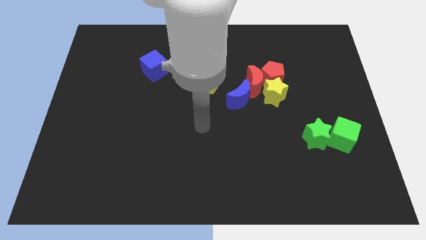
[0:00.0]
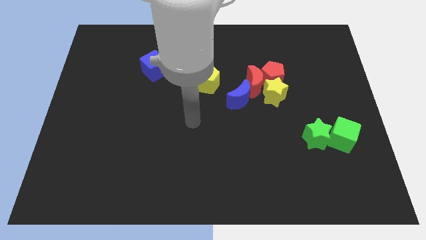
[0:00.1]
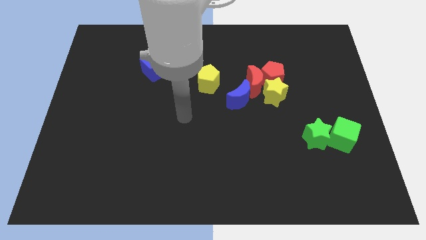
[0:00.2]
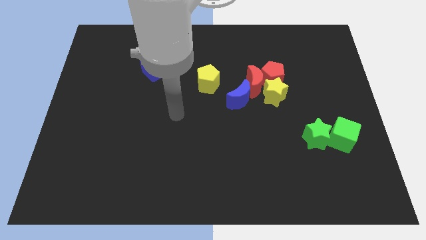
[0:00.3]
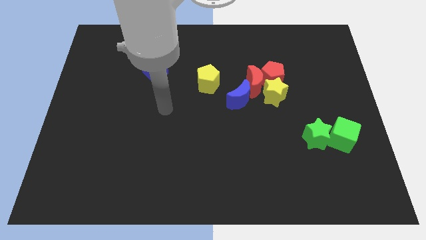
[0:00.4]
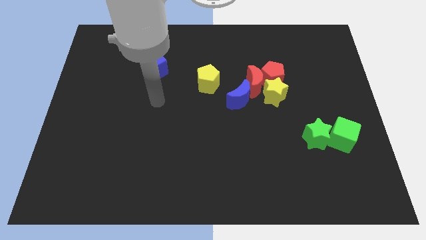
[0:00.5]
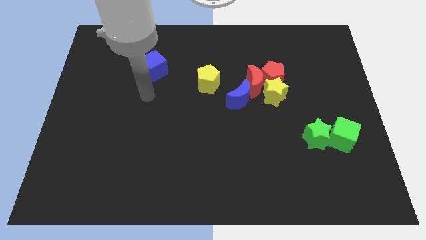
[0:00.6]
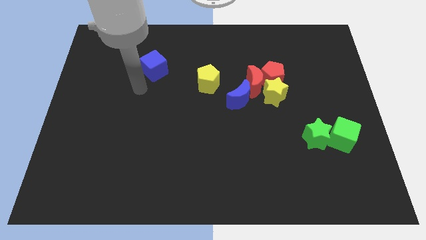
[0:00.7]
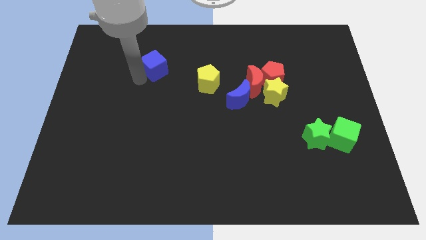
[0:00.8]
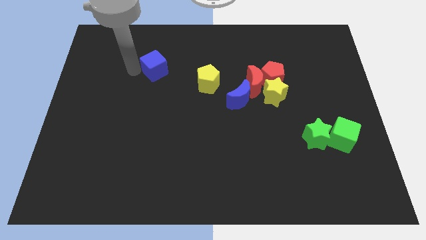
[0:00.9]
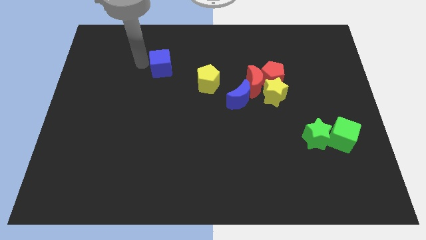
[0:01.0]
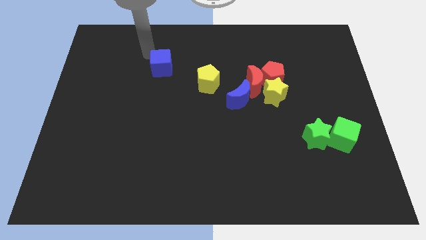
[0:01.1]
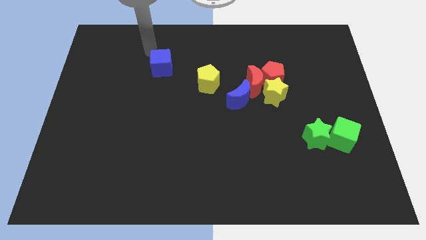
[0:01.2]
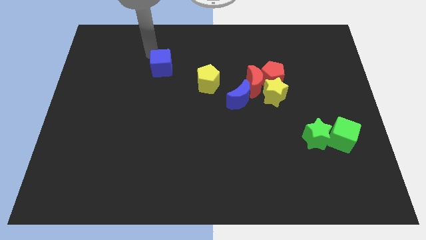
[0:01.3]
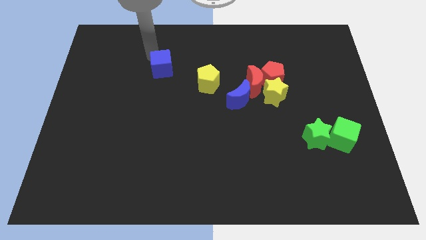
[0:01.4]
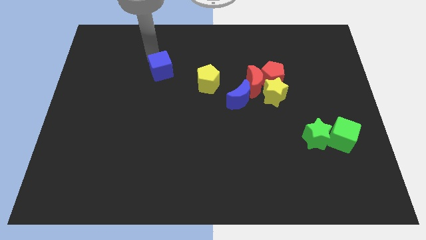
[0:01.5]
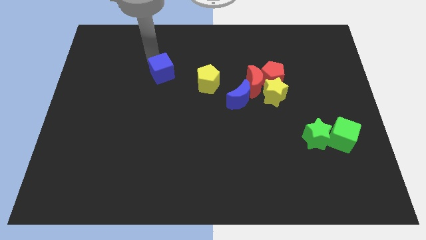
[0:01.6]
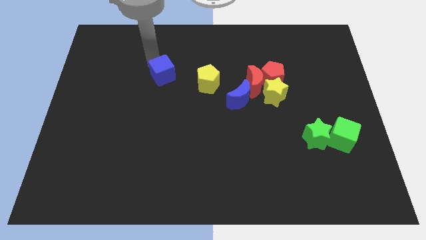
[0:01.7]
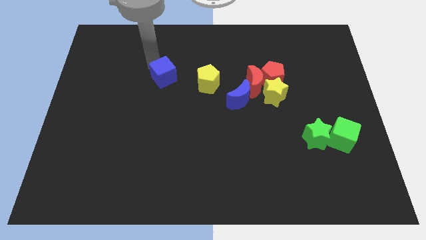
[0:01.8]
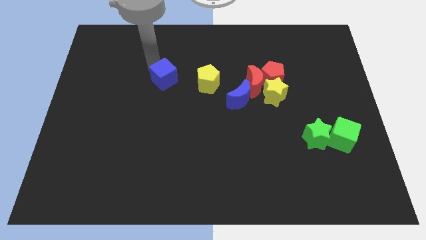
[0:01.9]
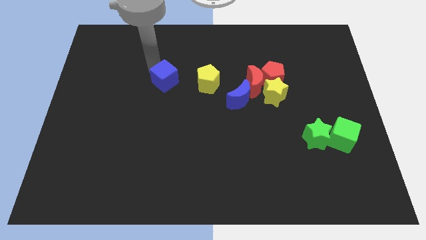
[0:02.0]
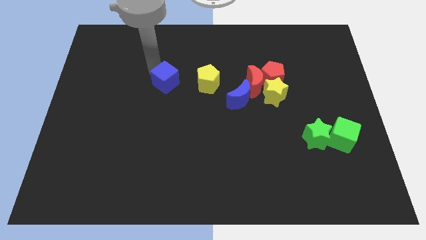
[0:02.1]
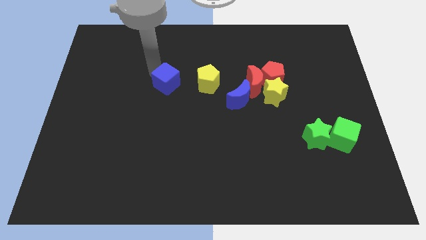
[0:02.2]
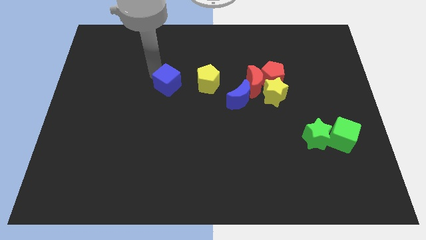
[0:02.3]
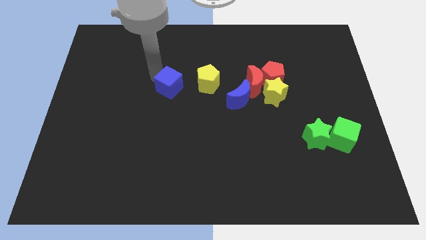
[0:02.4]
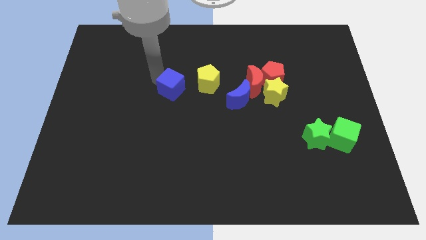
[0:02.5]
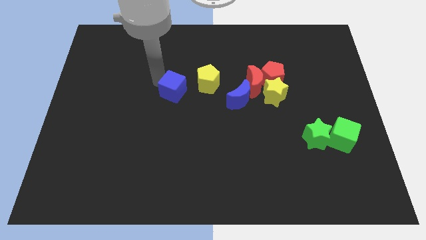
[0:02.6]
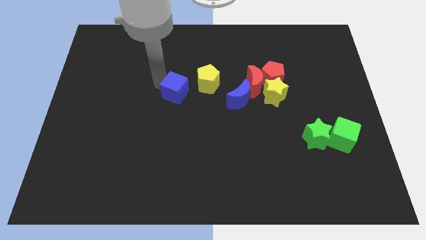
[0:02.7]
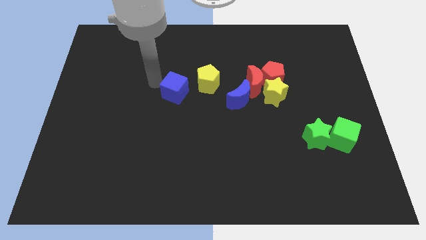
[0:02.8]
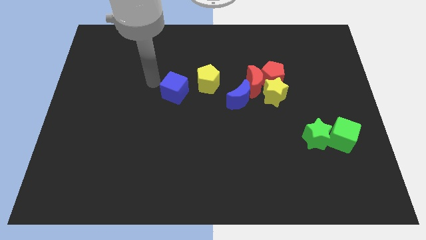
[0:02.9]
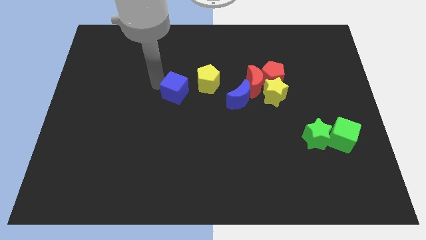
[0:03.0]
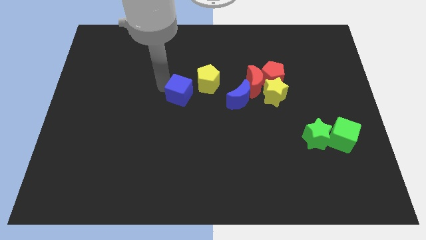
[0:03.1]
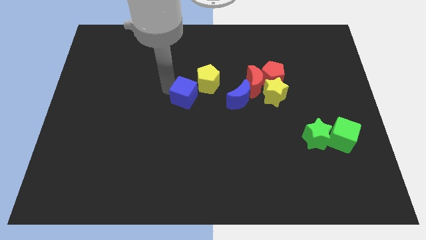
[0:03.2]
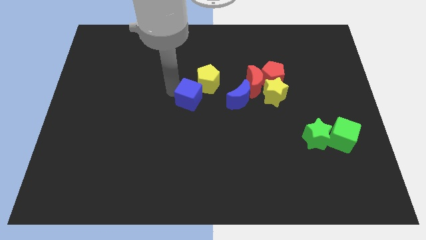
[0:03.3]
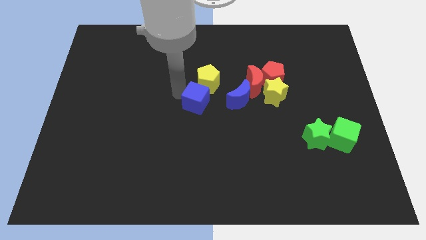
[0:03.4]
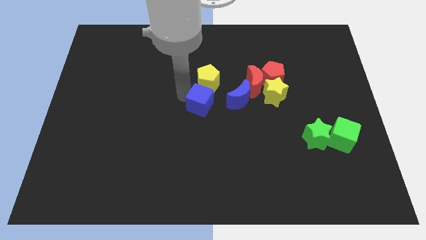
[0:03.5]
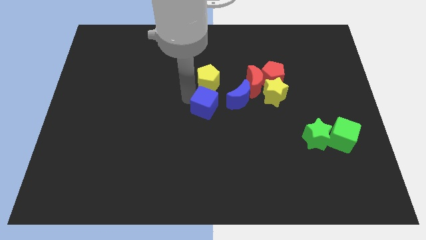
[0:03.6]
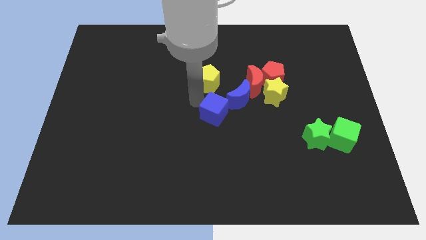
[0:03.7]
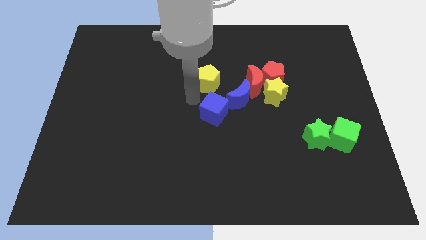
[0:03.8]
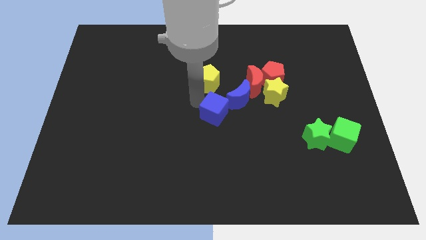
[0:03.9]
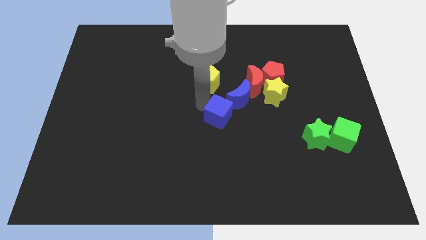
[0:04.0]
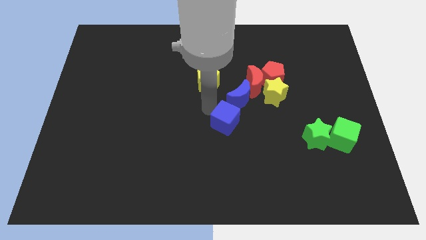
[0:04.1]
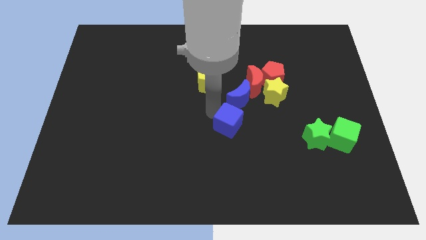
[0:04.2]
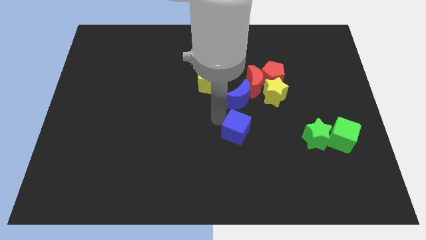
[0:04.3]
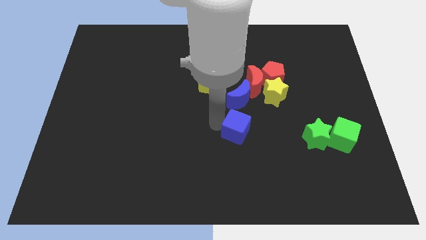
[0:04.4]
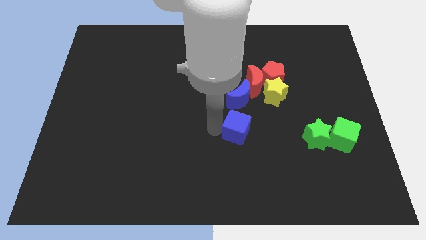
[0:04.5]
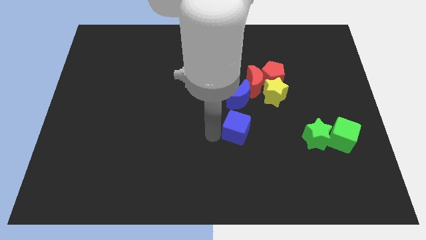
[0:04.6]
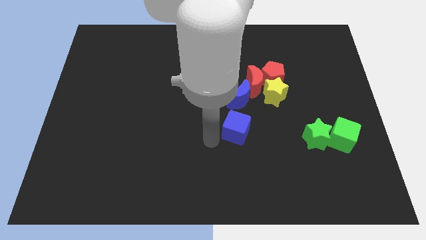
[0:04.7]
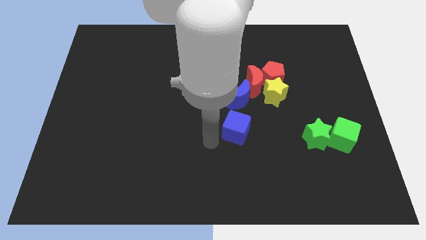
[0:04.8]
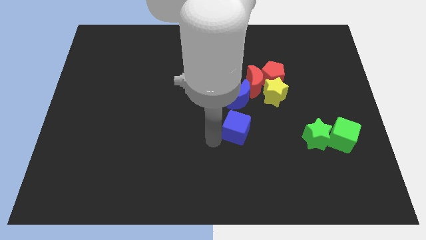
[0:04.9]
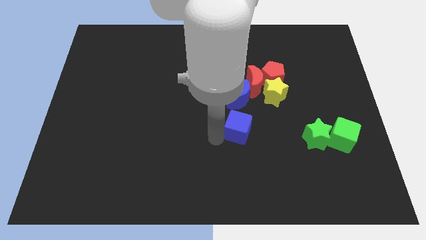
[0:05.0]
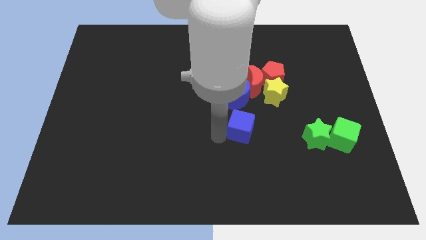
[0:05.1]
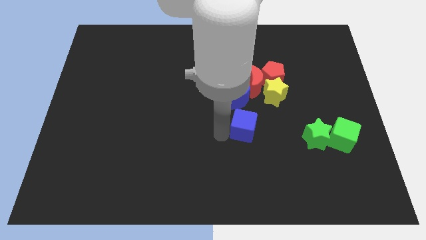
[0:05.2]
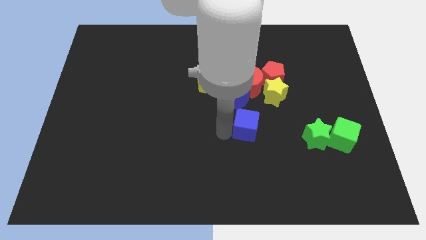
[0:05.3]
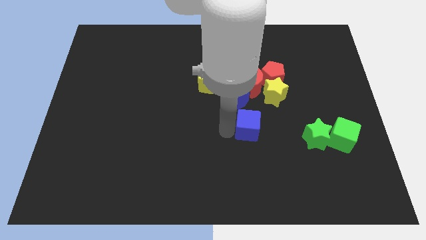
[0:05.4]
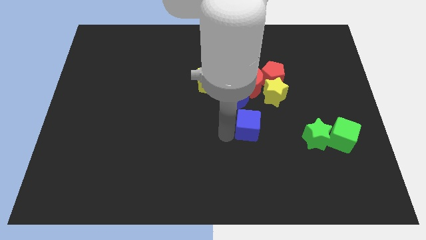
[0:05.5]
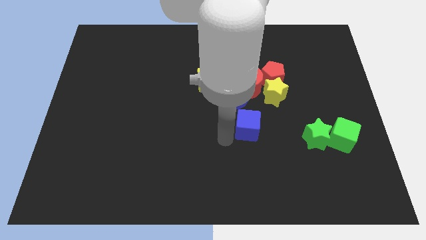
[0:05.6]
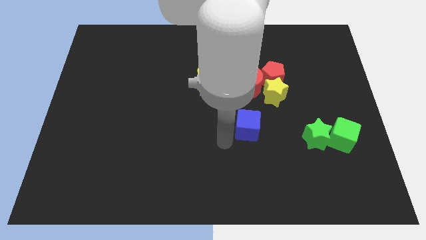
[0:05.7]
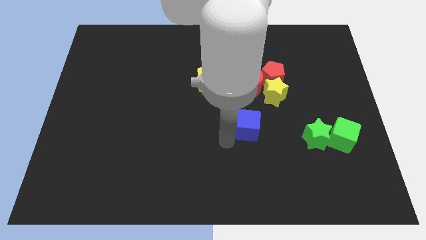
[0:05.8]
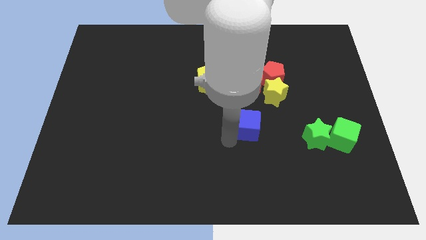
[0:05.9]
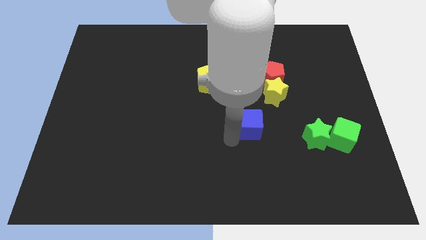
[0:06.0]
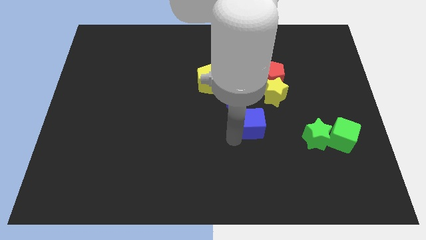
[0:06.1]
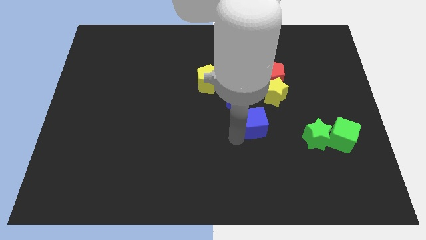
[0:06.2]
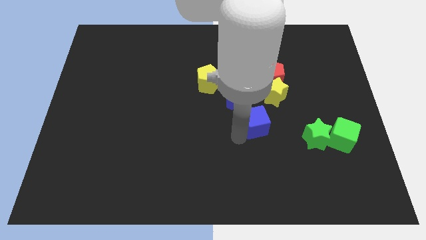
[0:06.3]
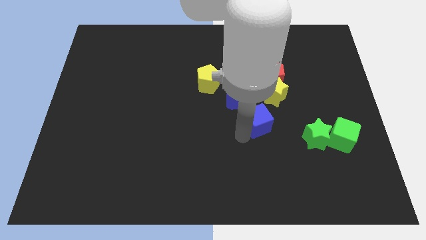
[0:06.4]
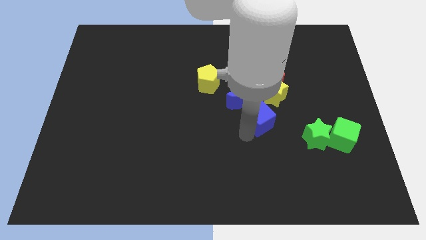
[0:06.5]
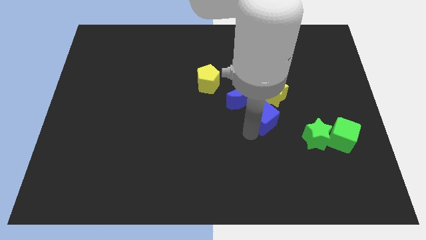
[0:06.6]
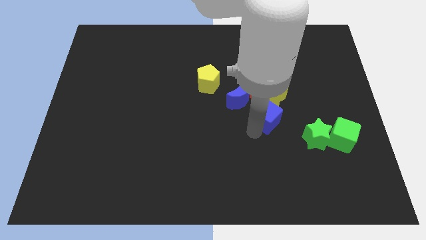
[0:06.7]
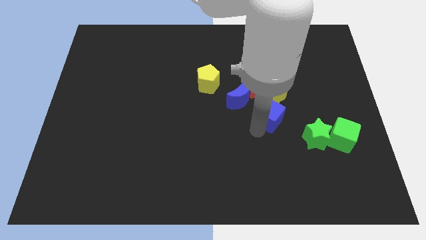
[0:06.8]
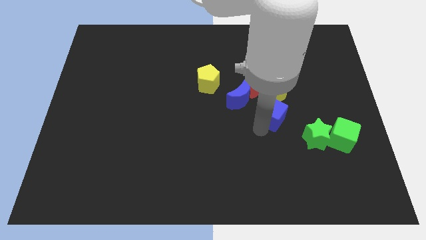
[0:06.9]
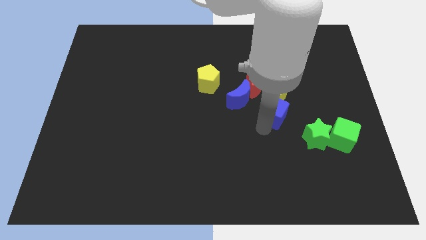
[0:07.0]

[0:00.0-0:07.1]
put the blue cube next to the yellow star
